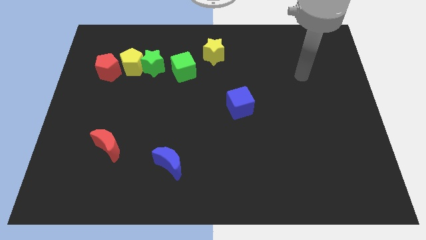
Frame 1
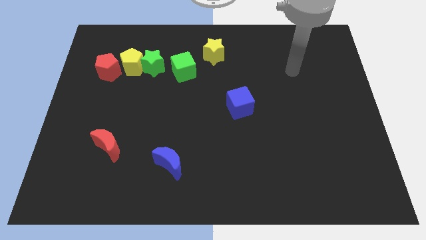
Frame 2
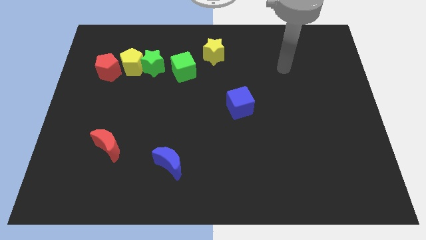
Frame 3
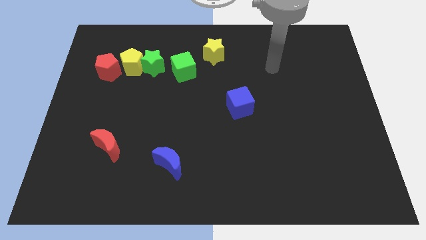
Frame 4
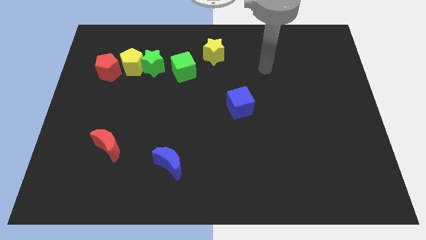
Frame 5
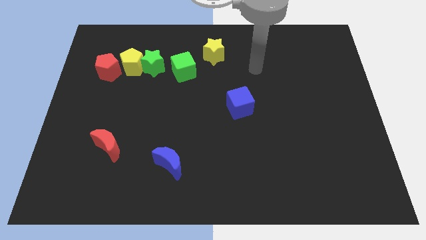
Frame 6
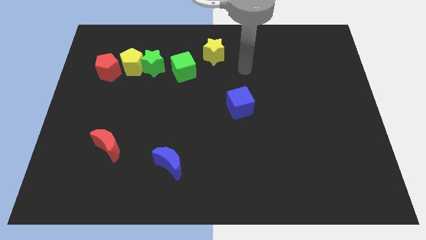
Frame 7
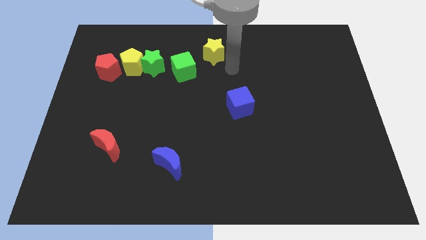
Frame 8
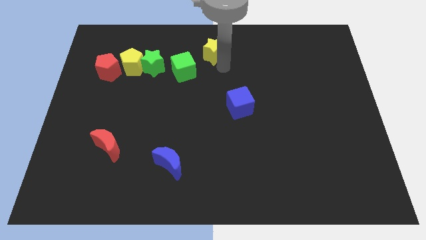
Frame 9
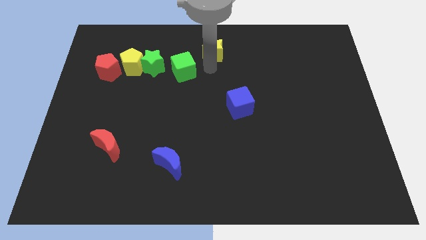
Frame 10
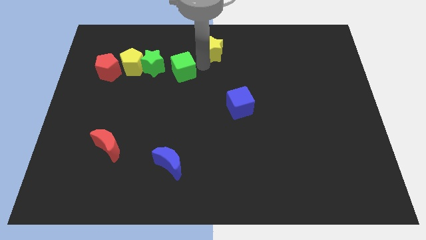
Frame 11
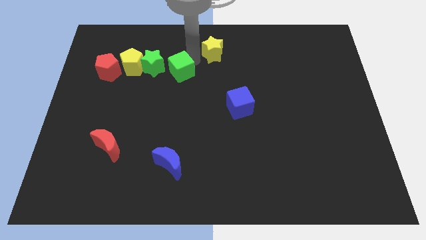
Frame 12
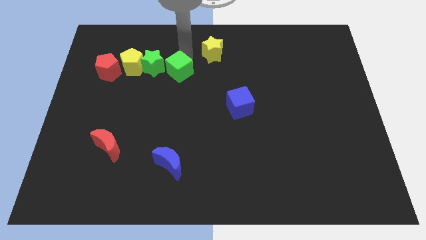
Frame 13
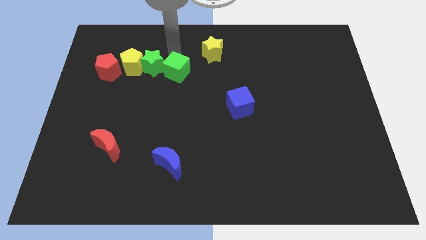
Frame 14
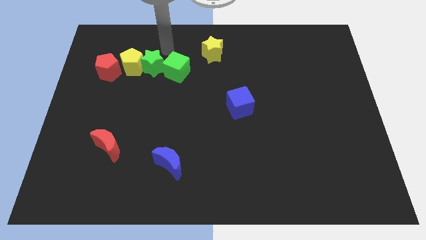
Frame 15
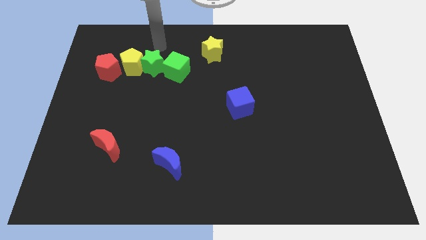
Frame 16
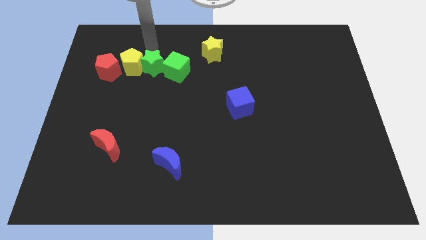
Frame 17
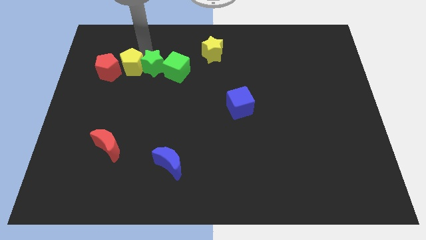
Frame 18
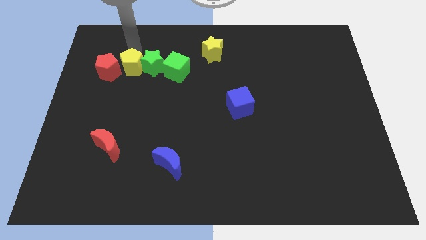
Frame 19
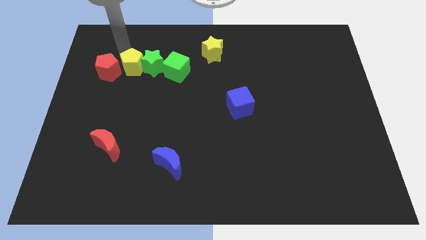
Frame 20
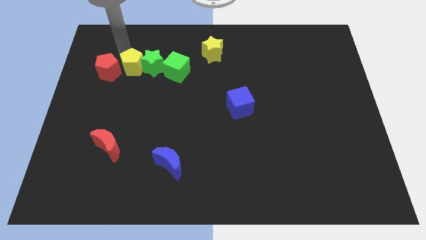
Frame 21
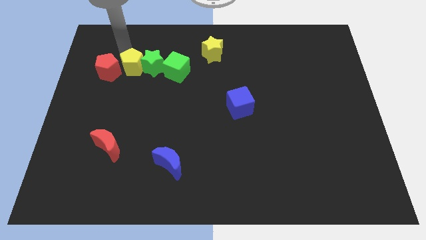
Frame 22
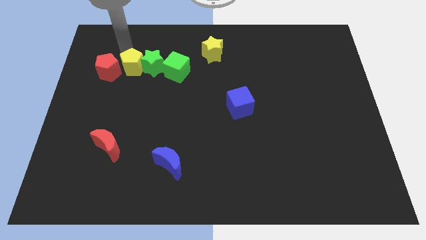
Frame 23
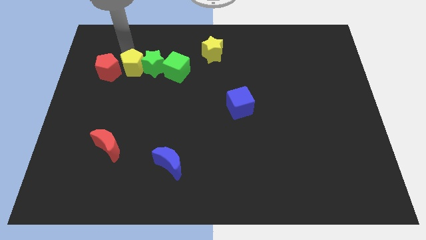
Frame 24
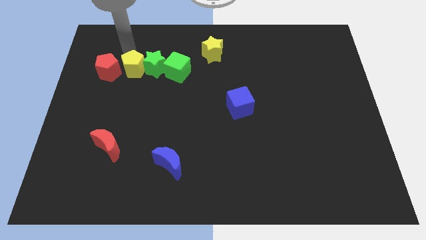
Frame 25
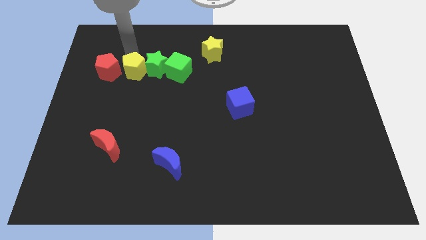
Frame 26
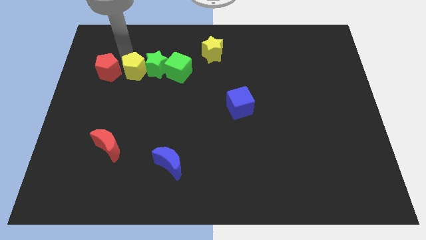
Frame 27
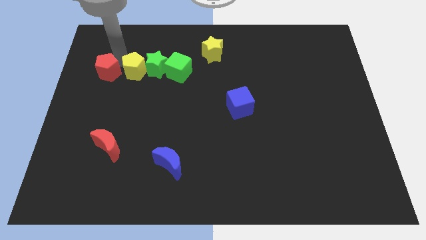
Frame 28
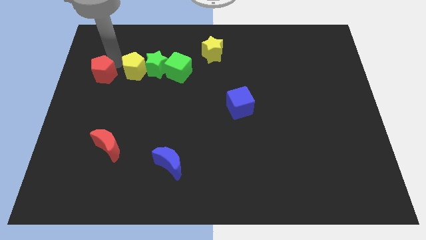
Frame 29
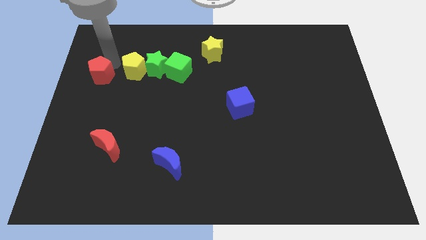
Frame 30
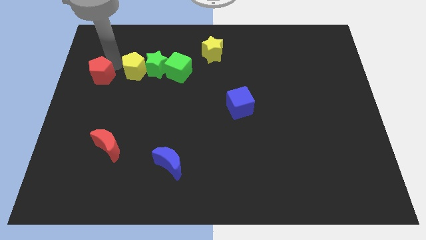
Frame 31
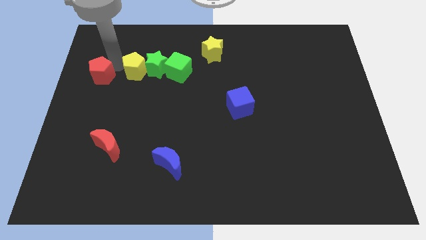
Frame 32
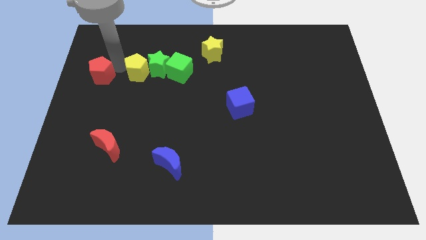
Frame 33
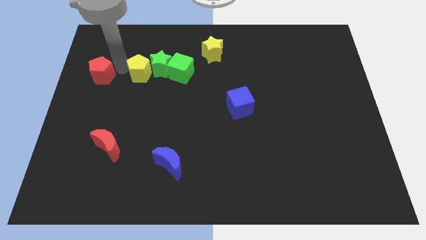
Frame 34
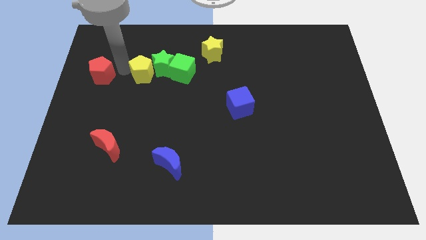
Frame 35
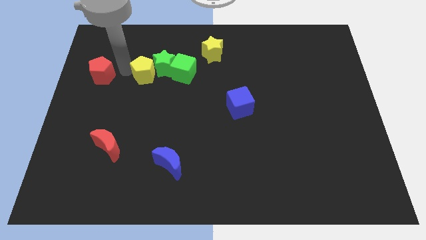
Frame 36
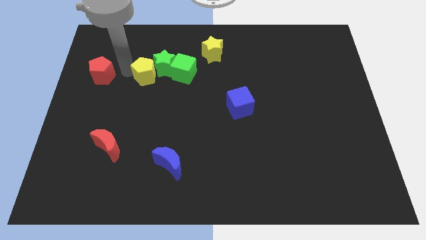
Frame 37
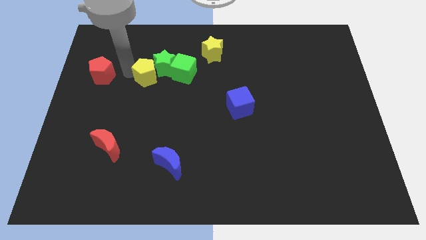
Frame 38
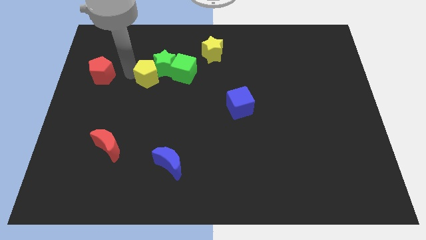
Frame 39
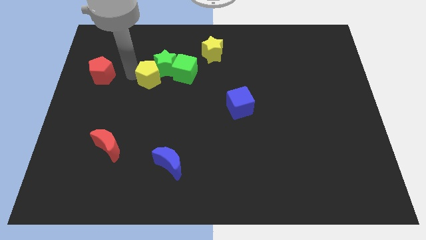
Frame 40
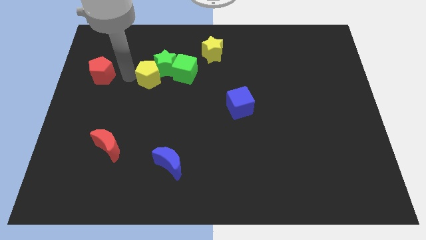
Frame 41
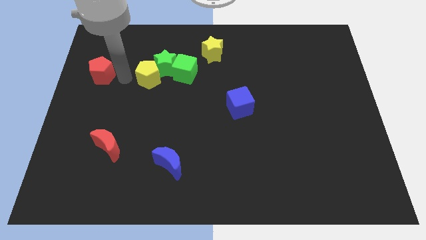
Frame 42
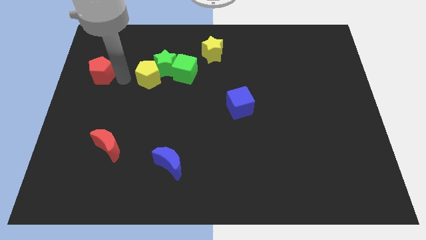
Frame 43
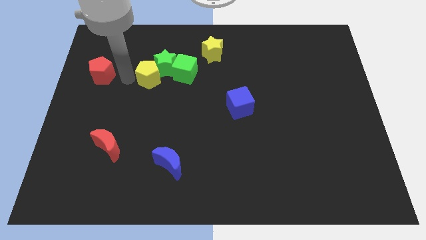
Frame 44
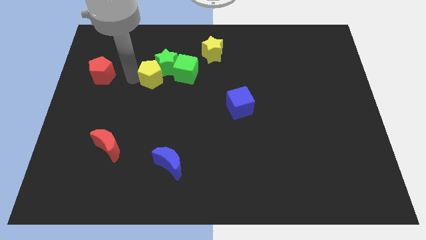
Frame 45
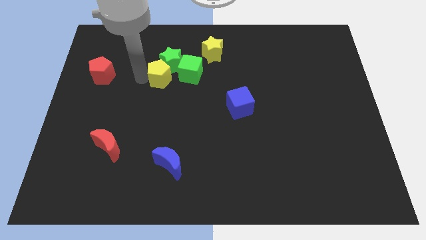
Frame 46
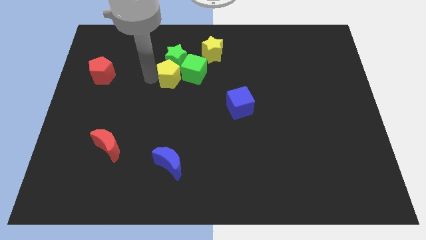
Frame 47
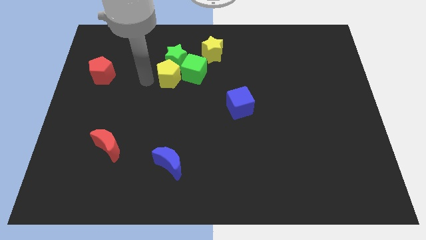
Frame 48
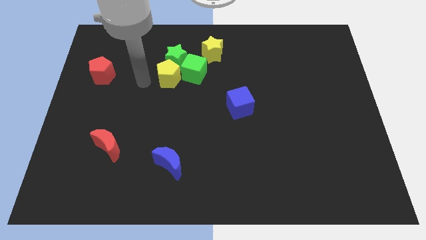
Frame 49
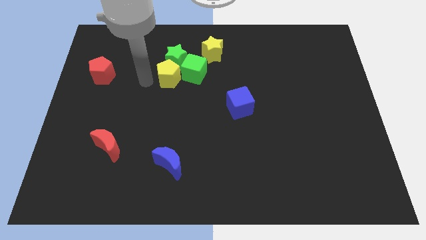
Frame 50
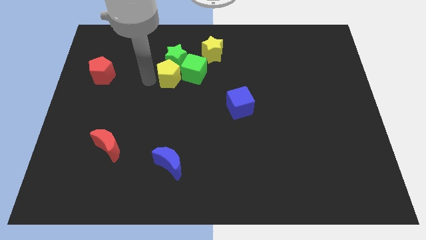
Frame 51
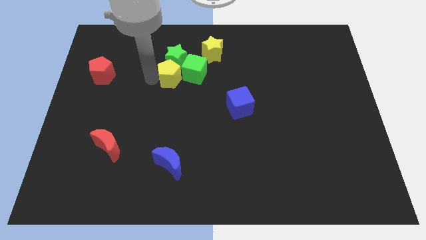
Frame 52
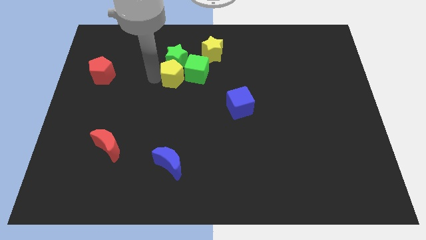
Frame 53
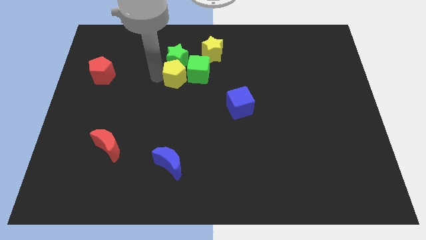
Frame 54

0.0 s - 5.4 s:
push the yellow pentagon to the green cube

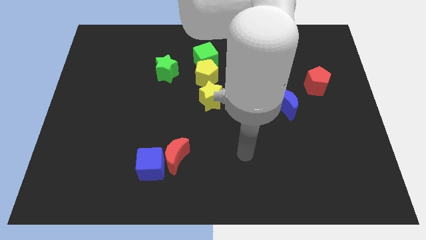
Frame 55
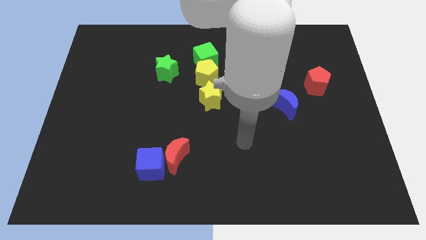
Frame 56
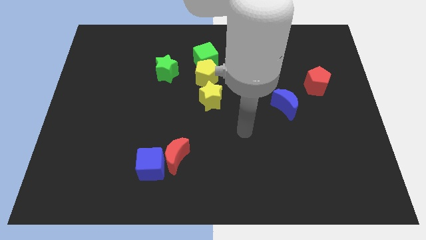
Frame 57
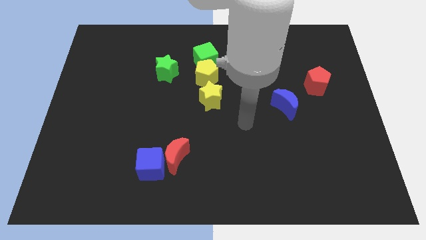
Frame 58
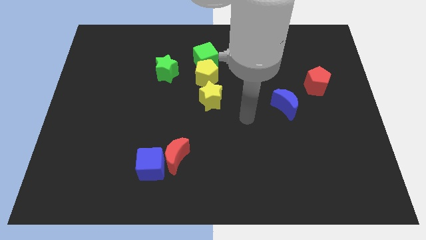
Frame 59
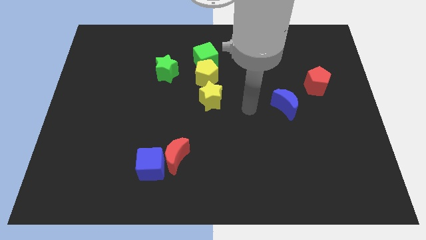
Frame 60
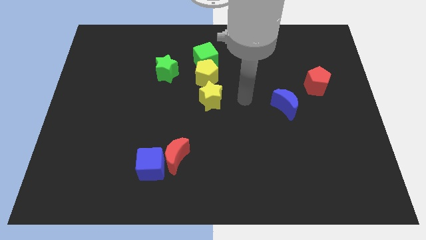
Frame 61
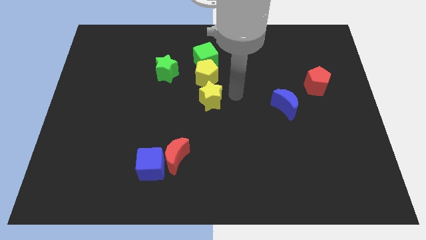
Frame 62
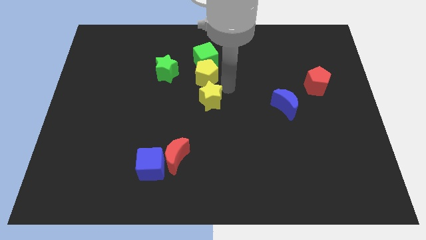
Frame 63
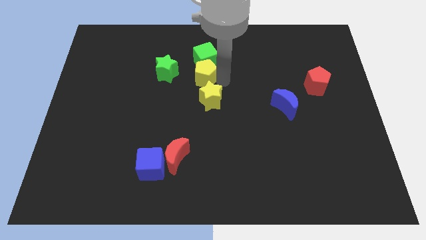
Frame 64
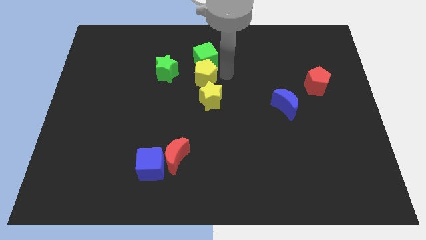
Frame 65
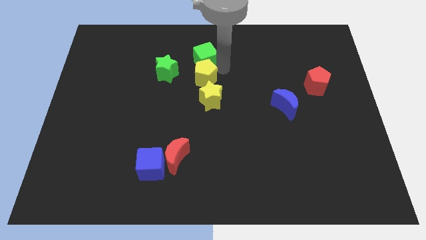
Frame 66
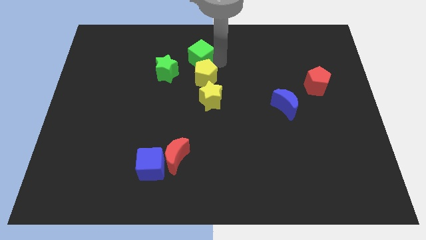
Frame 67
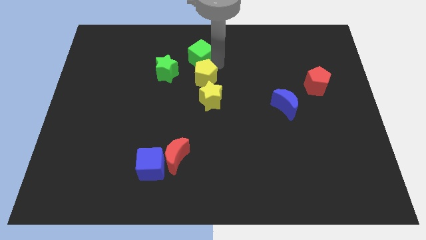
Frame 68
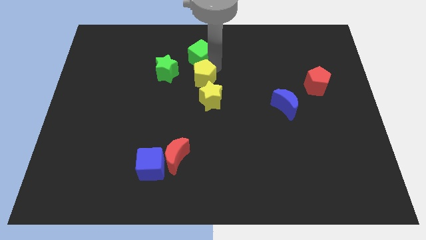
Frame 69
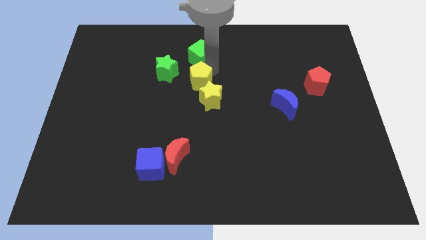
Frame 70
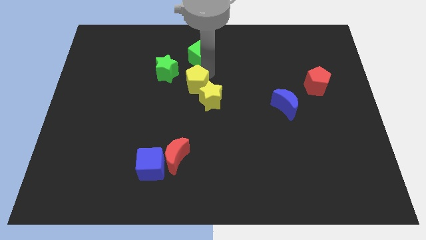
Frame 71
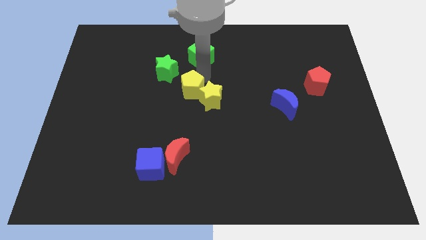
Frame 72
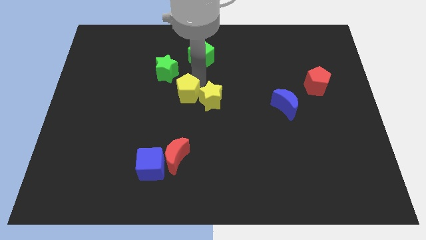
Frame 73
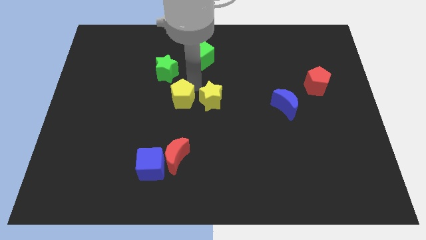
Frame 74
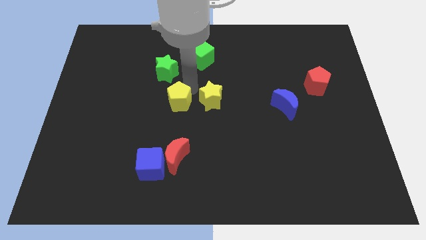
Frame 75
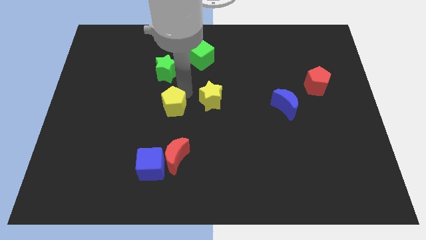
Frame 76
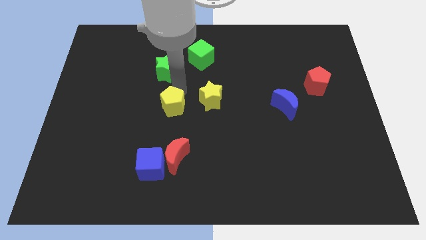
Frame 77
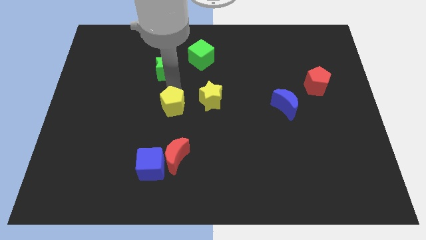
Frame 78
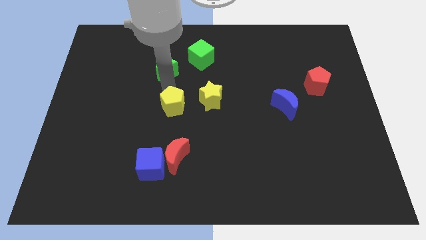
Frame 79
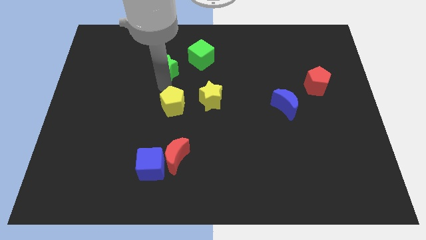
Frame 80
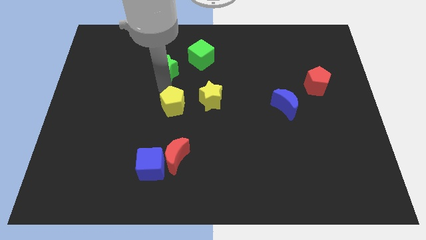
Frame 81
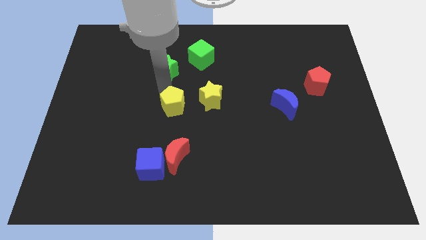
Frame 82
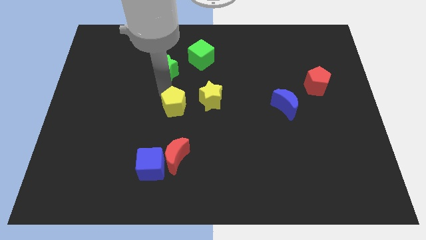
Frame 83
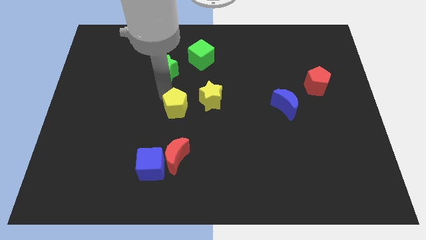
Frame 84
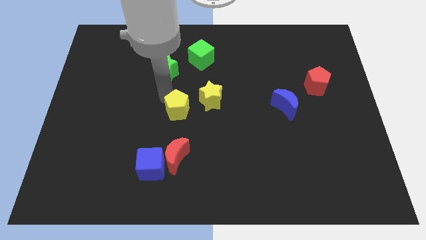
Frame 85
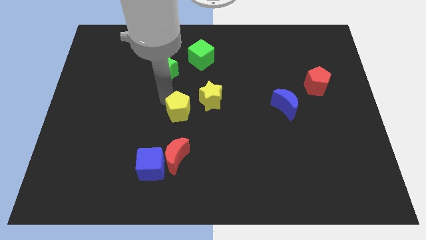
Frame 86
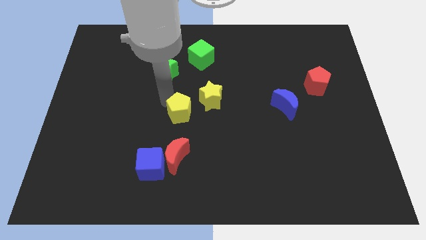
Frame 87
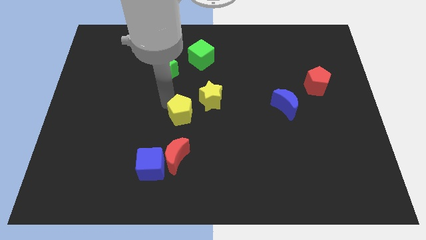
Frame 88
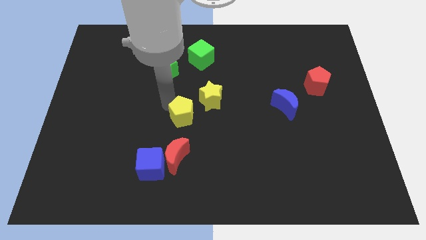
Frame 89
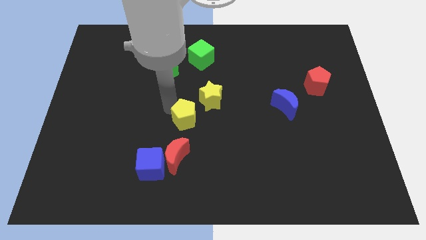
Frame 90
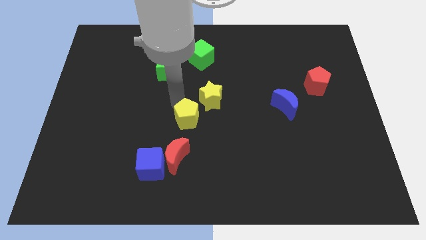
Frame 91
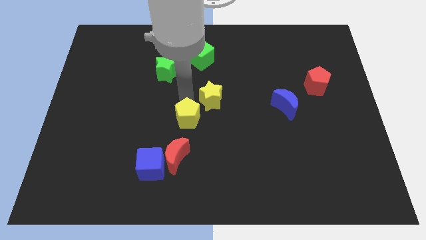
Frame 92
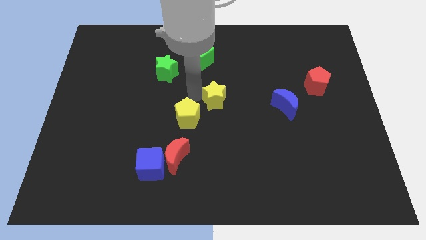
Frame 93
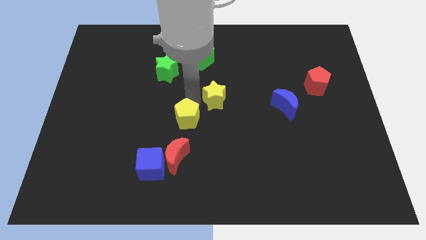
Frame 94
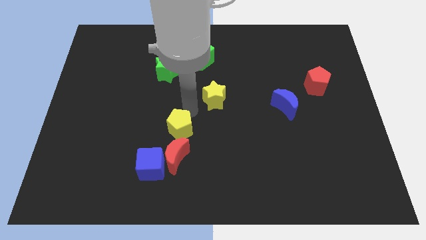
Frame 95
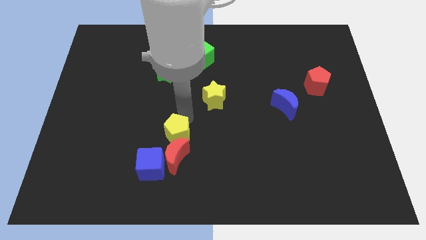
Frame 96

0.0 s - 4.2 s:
put the yellow pentagon close to the red moon
